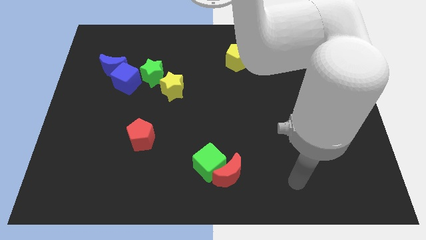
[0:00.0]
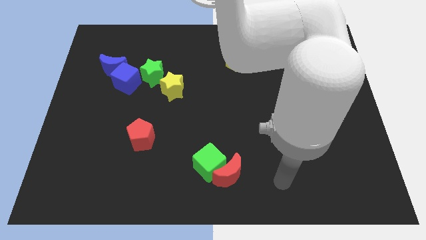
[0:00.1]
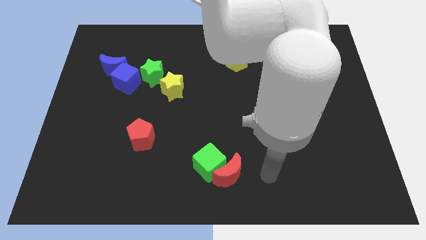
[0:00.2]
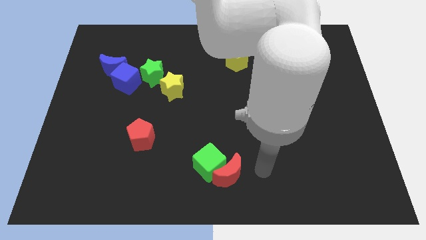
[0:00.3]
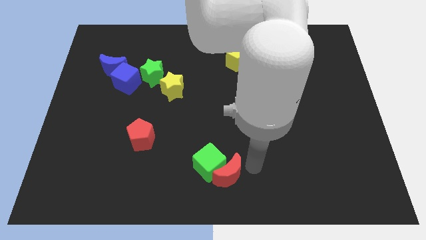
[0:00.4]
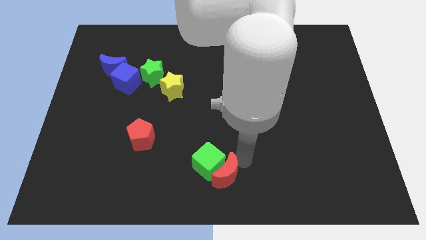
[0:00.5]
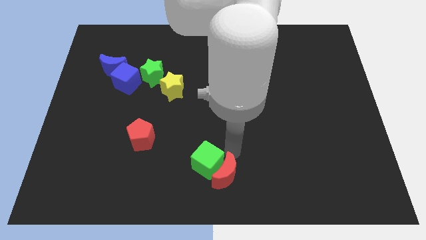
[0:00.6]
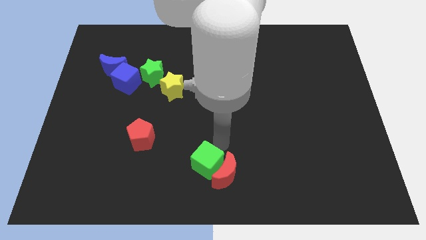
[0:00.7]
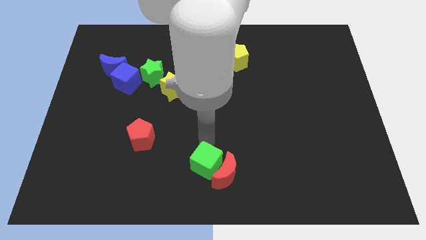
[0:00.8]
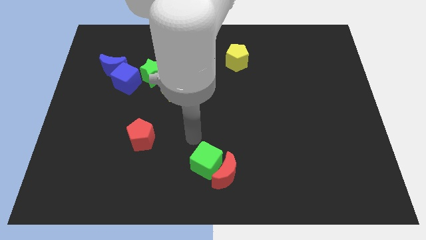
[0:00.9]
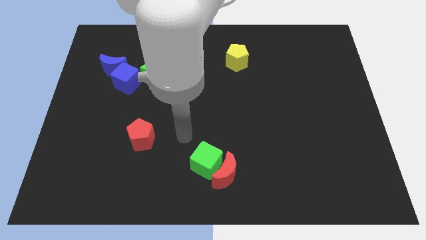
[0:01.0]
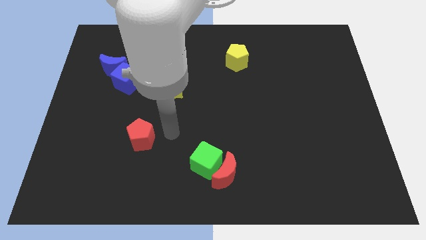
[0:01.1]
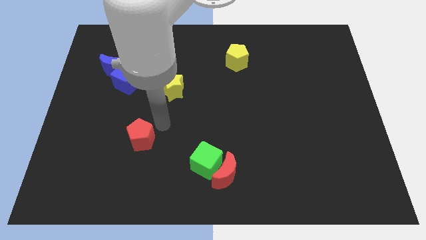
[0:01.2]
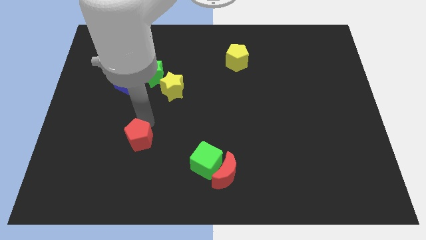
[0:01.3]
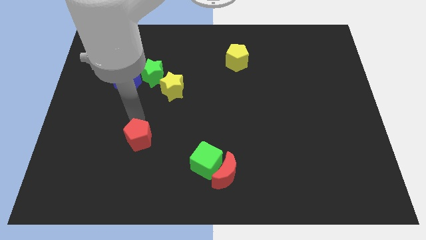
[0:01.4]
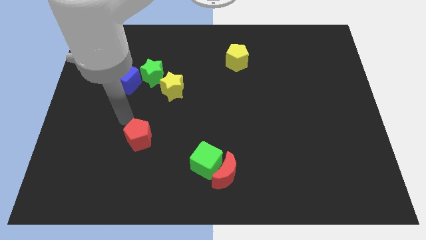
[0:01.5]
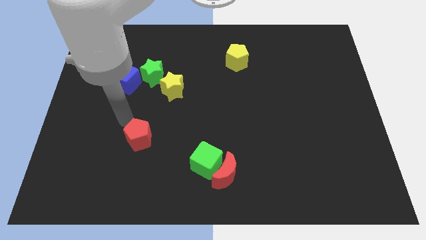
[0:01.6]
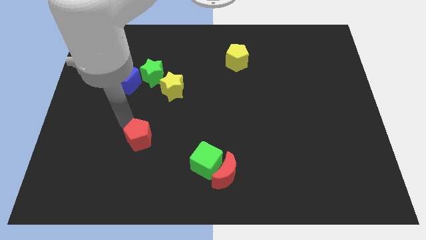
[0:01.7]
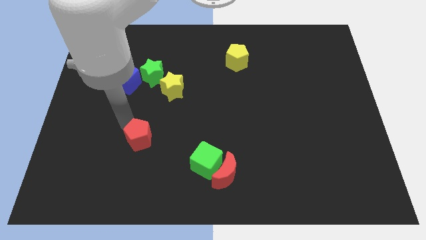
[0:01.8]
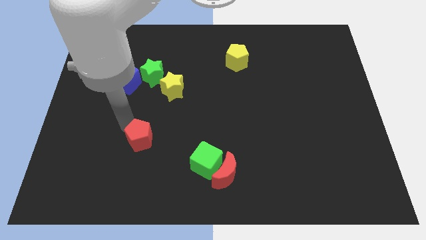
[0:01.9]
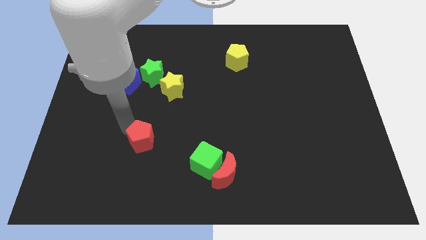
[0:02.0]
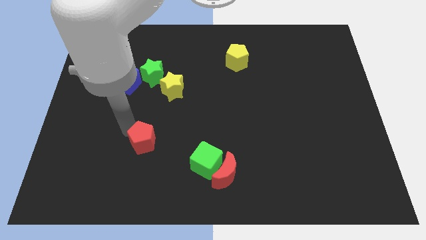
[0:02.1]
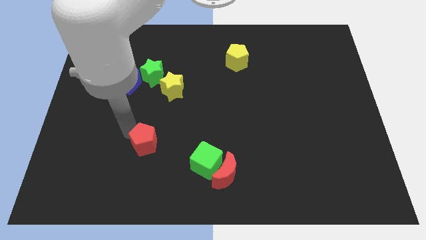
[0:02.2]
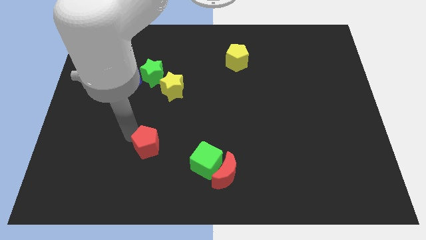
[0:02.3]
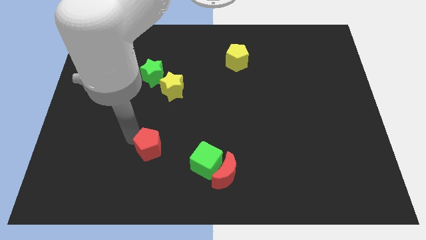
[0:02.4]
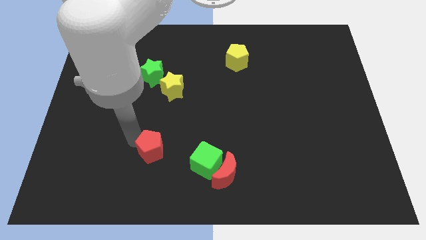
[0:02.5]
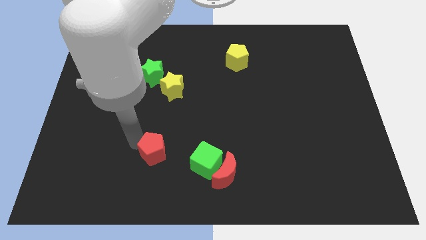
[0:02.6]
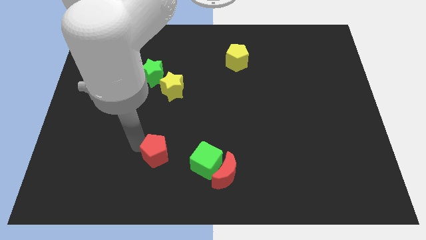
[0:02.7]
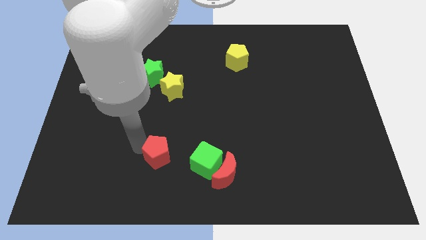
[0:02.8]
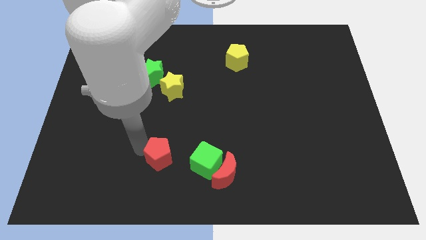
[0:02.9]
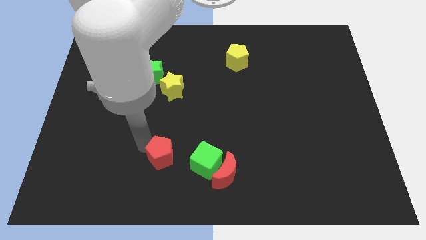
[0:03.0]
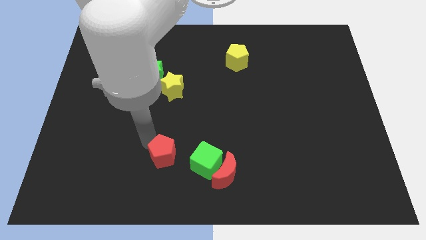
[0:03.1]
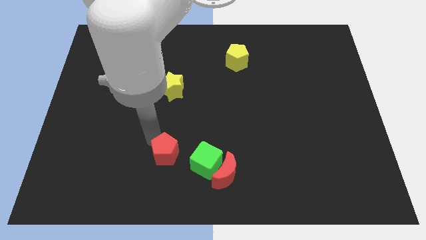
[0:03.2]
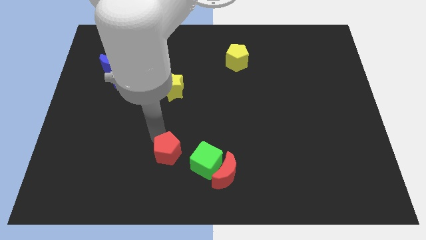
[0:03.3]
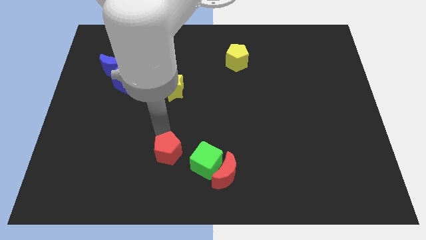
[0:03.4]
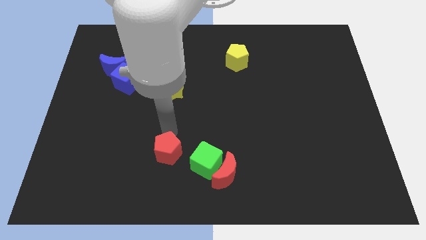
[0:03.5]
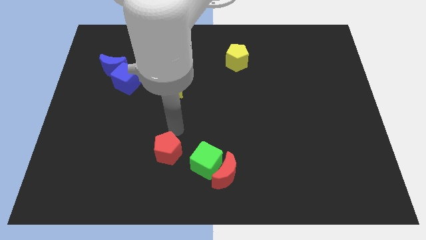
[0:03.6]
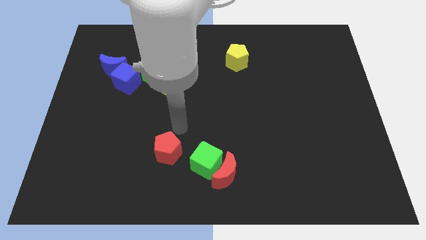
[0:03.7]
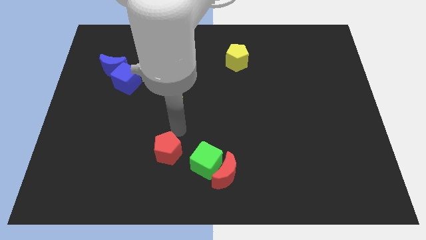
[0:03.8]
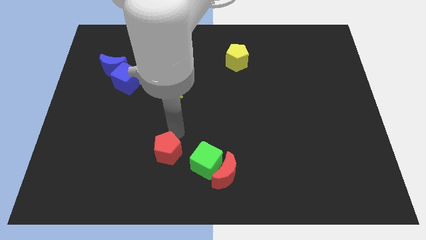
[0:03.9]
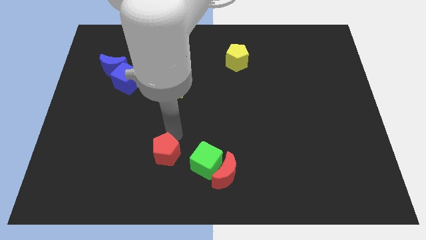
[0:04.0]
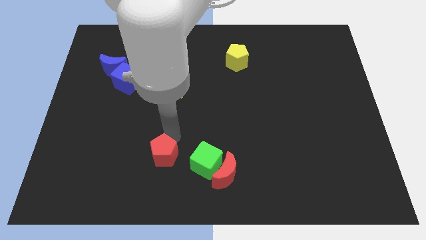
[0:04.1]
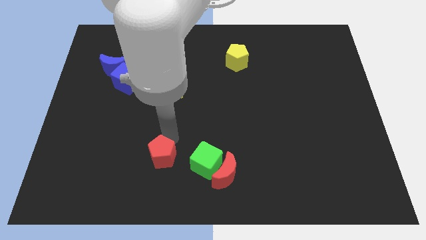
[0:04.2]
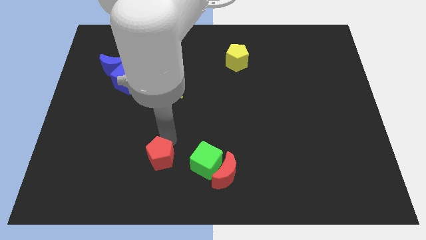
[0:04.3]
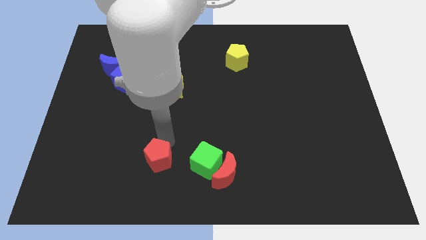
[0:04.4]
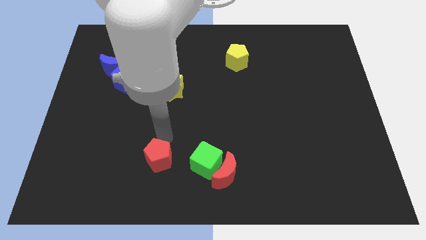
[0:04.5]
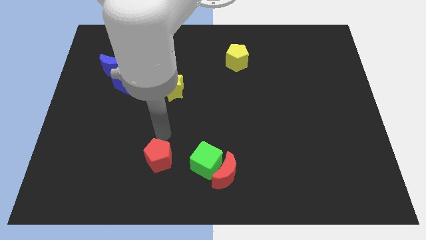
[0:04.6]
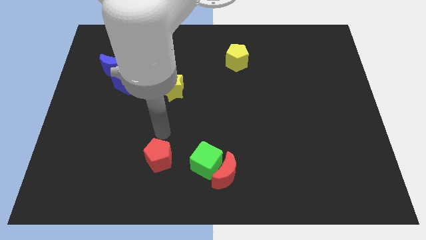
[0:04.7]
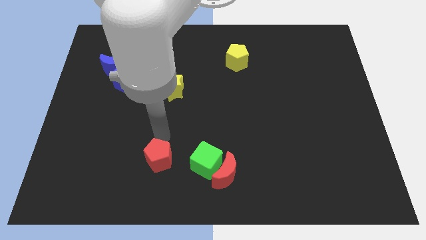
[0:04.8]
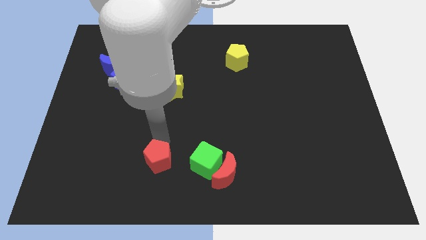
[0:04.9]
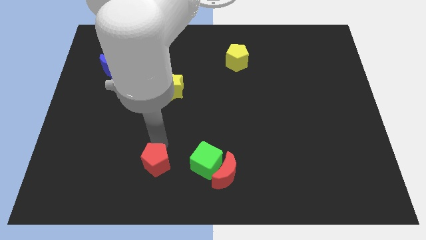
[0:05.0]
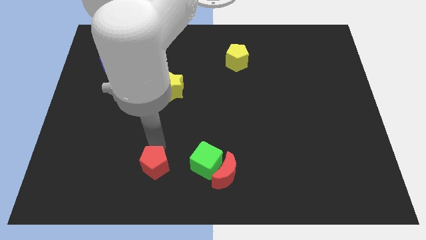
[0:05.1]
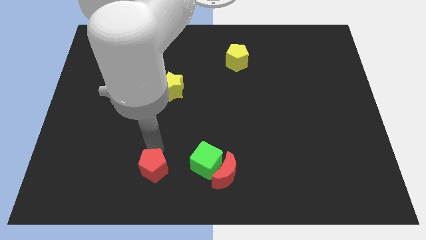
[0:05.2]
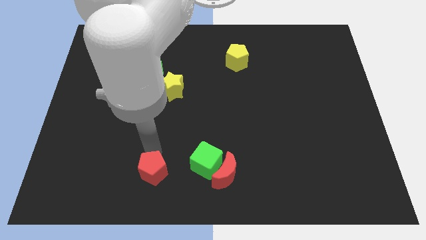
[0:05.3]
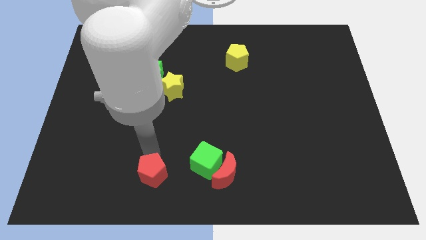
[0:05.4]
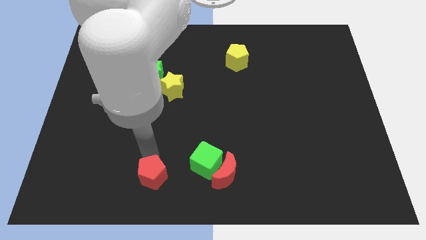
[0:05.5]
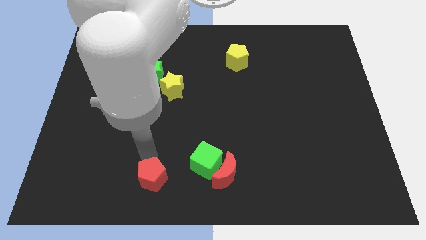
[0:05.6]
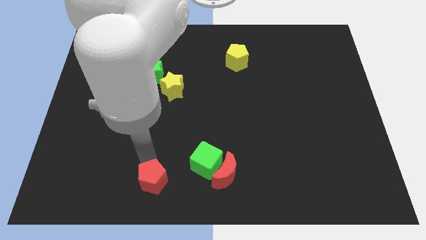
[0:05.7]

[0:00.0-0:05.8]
slide the red pentagon to the bottom side

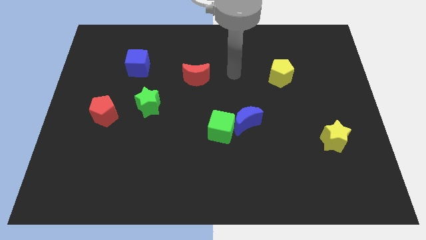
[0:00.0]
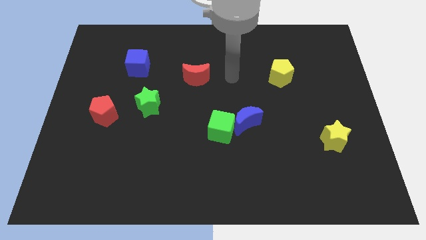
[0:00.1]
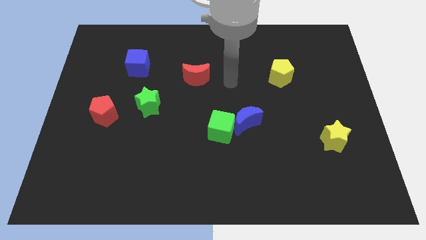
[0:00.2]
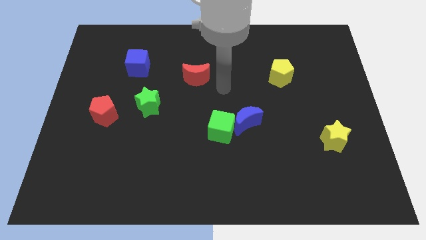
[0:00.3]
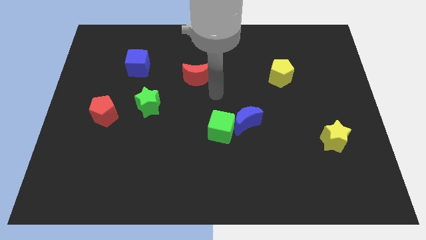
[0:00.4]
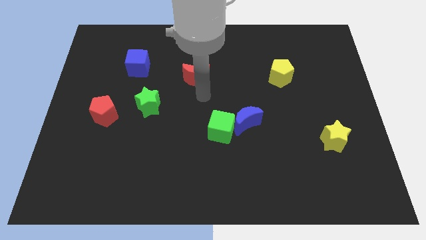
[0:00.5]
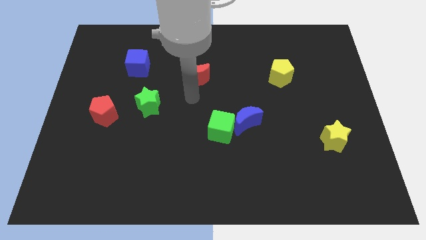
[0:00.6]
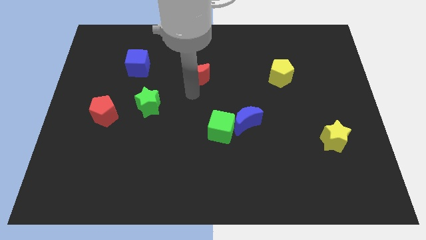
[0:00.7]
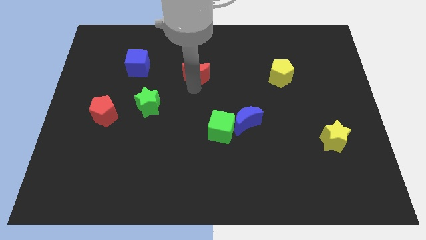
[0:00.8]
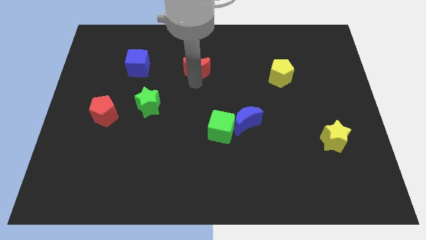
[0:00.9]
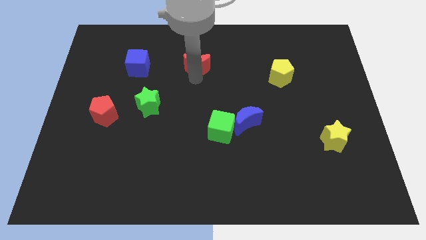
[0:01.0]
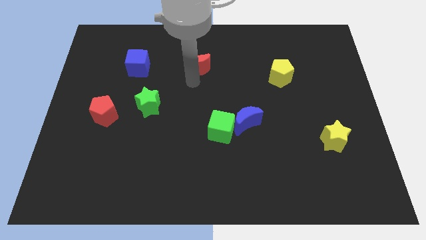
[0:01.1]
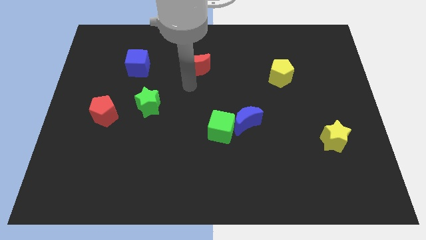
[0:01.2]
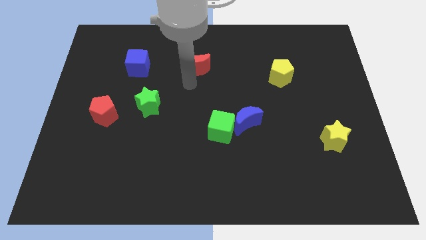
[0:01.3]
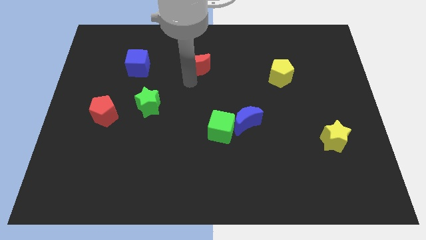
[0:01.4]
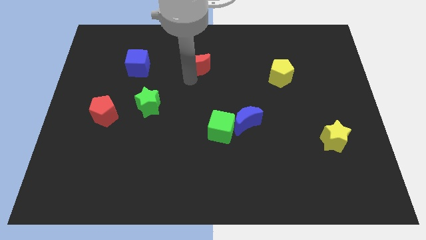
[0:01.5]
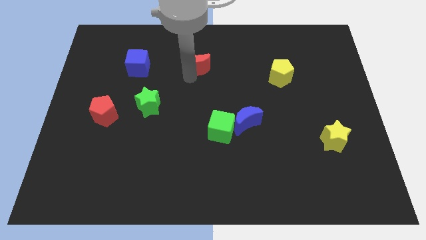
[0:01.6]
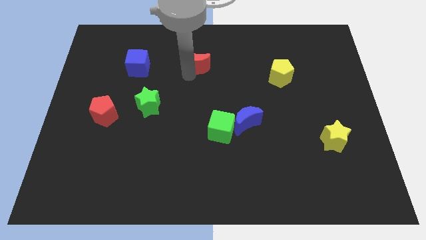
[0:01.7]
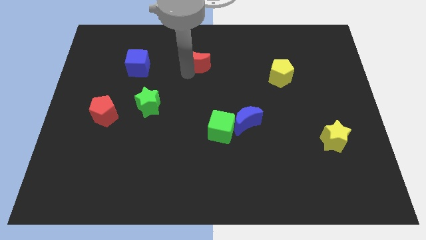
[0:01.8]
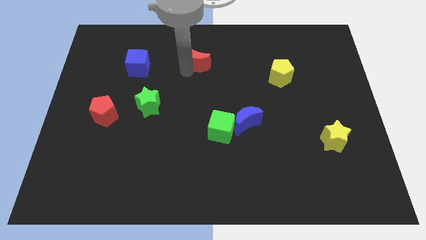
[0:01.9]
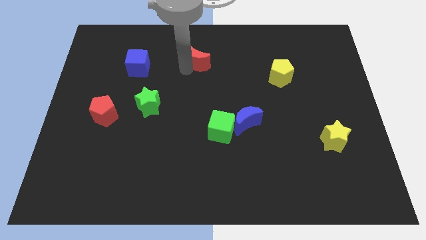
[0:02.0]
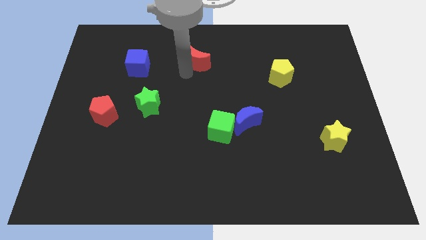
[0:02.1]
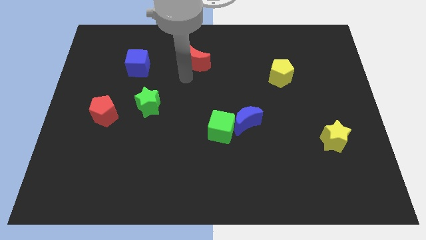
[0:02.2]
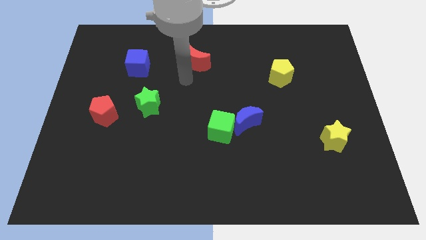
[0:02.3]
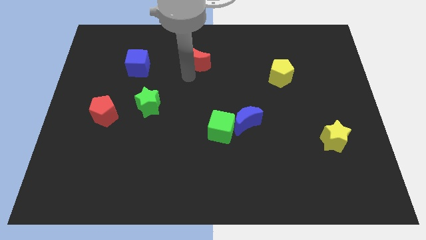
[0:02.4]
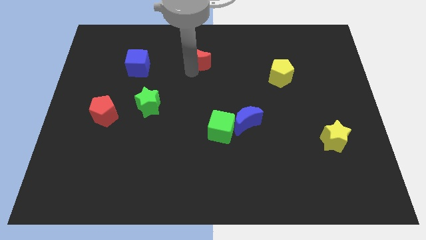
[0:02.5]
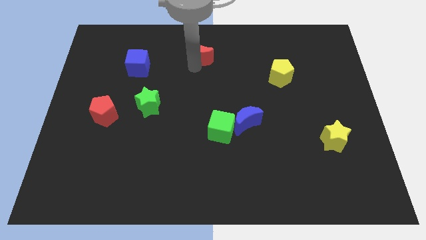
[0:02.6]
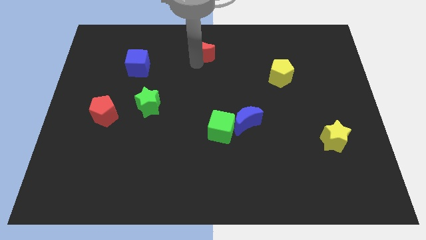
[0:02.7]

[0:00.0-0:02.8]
move the red moon to the towards your base
